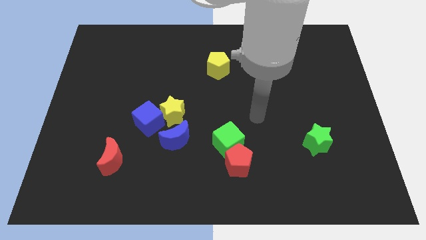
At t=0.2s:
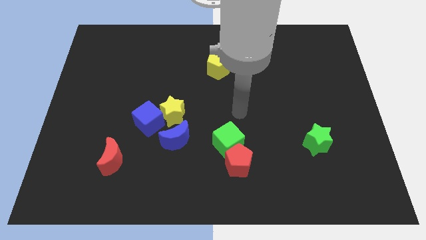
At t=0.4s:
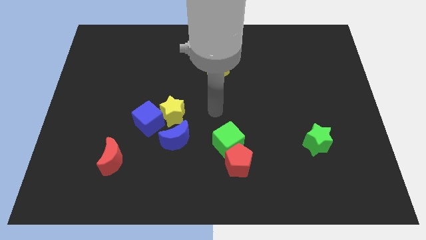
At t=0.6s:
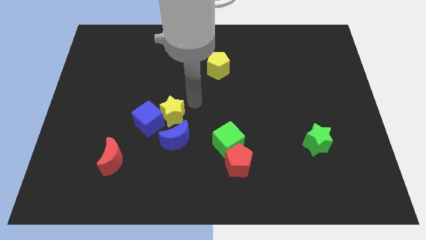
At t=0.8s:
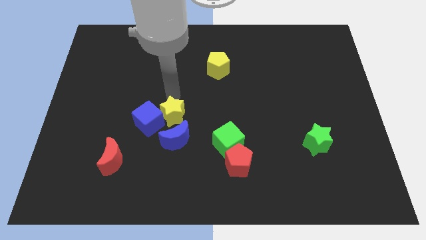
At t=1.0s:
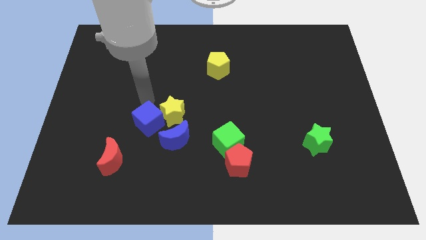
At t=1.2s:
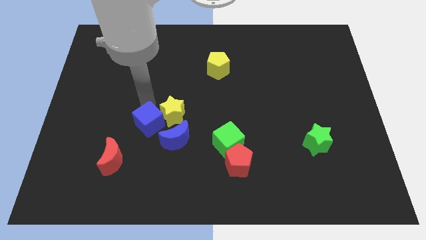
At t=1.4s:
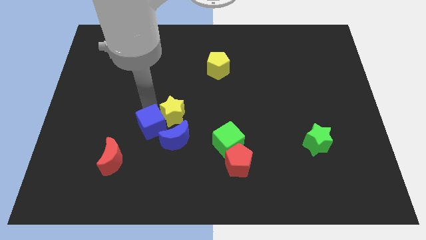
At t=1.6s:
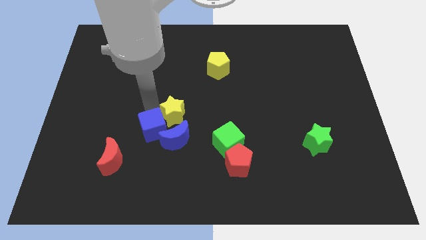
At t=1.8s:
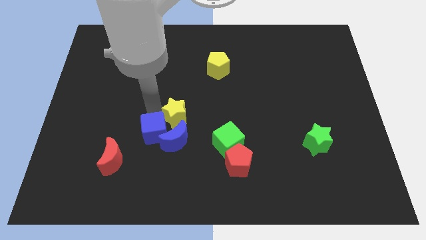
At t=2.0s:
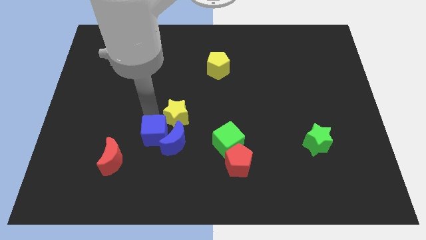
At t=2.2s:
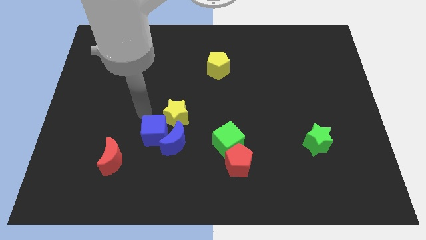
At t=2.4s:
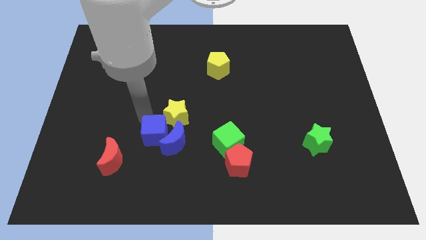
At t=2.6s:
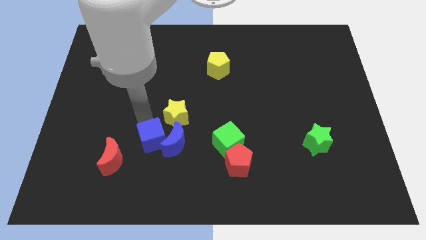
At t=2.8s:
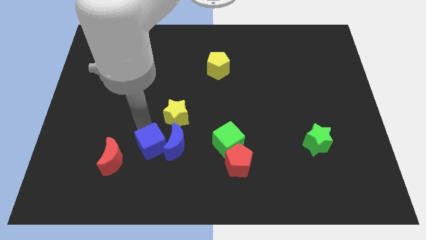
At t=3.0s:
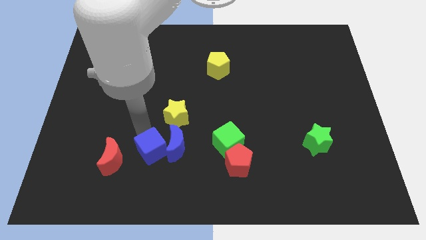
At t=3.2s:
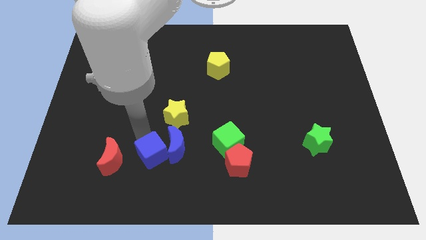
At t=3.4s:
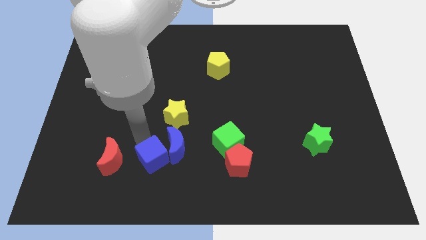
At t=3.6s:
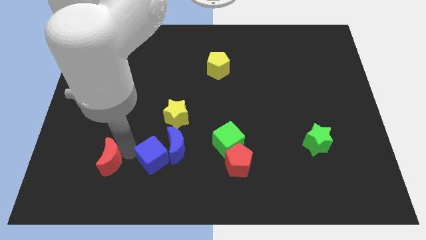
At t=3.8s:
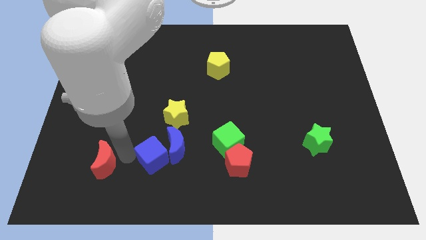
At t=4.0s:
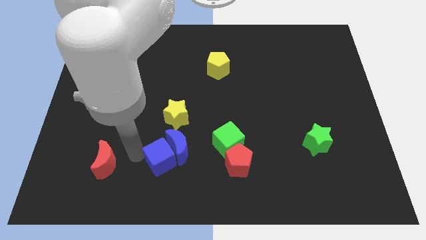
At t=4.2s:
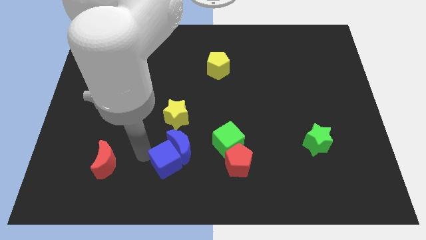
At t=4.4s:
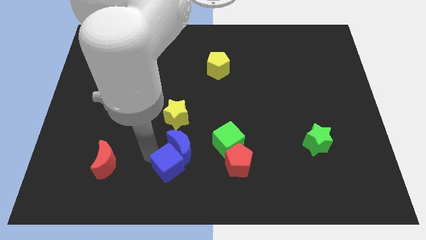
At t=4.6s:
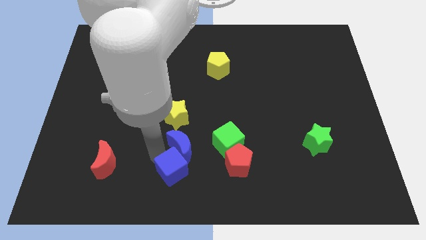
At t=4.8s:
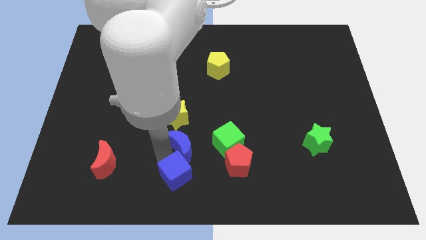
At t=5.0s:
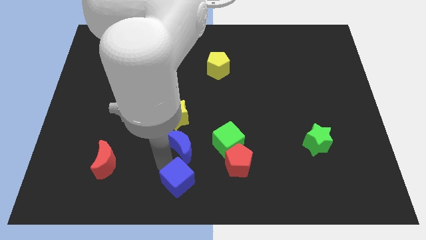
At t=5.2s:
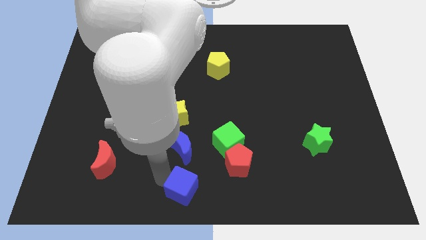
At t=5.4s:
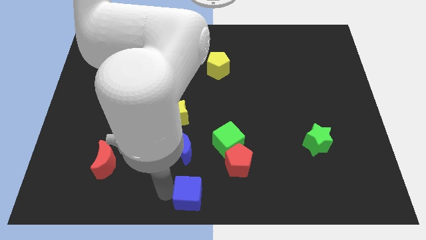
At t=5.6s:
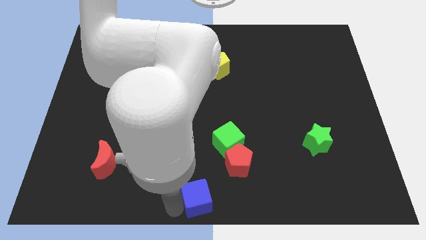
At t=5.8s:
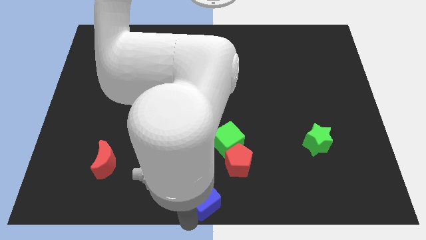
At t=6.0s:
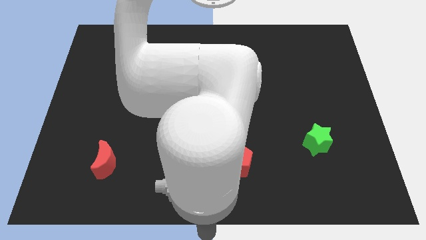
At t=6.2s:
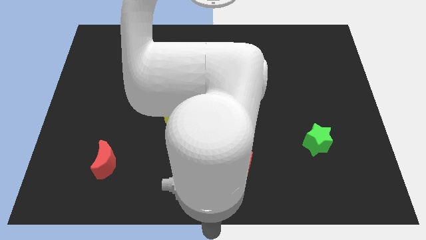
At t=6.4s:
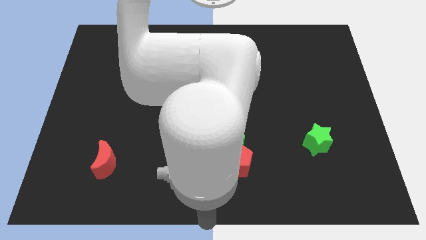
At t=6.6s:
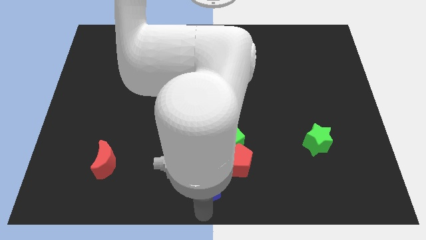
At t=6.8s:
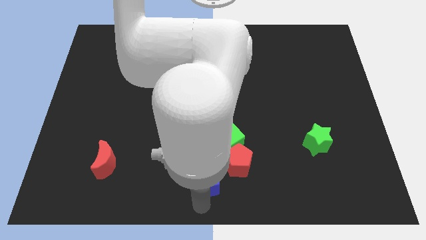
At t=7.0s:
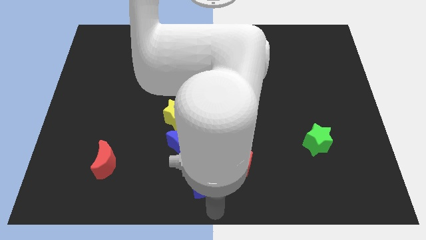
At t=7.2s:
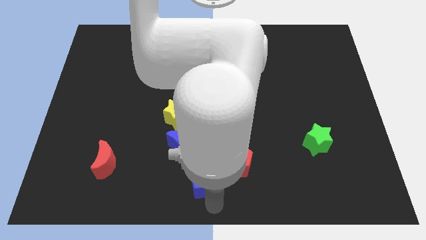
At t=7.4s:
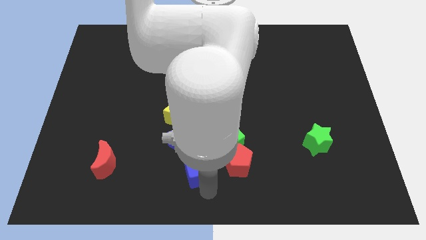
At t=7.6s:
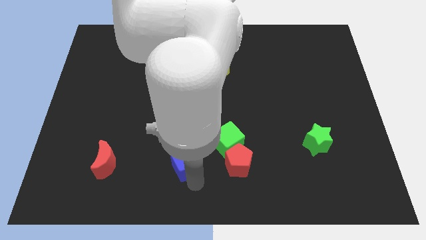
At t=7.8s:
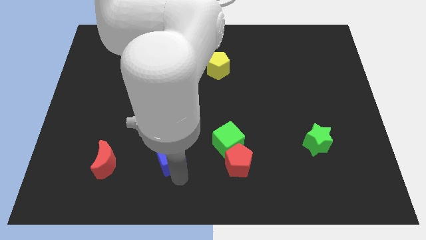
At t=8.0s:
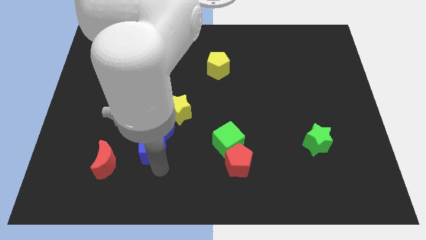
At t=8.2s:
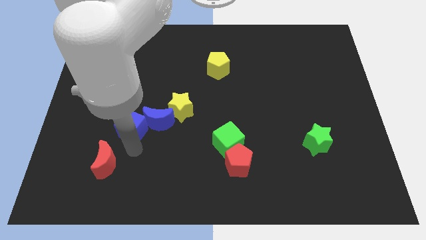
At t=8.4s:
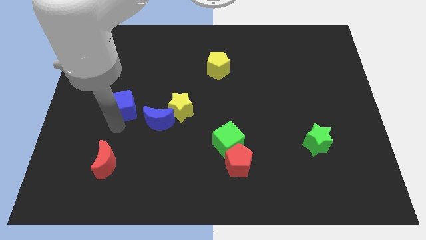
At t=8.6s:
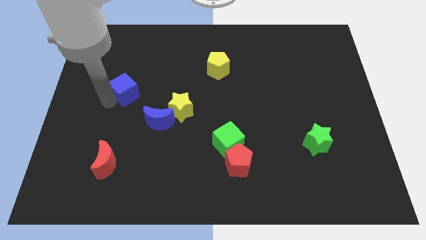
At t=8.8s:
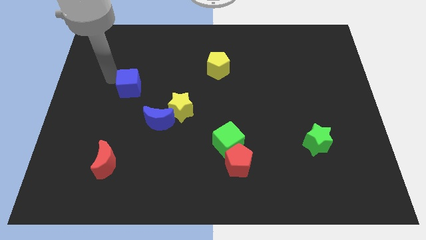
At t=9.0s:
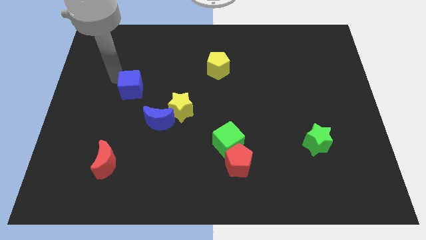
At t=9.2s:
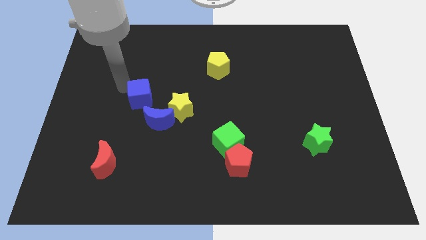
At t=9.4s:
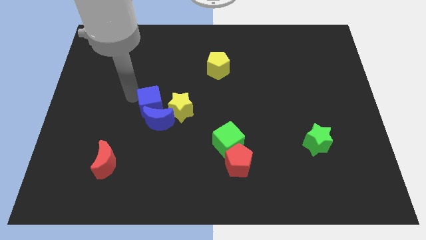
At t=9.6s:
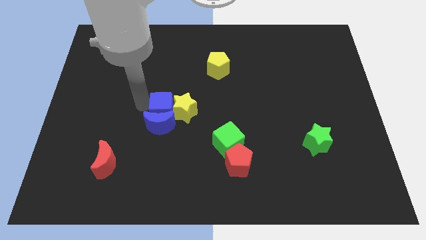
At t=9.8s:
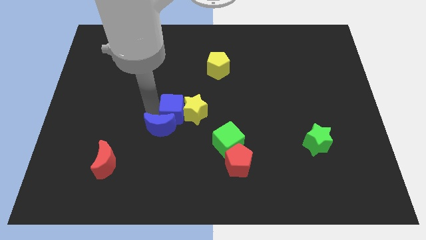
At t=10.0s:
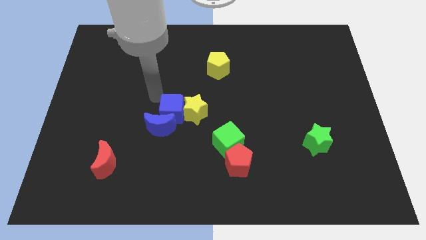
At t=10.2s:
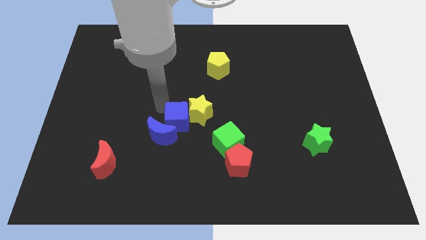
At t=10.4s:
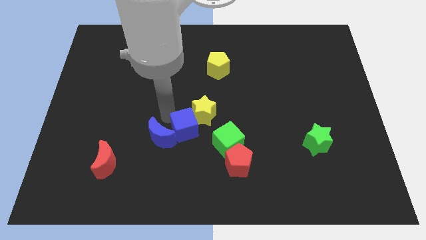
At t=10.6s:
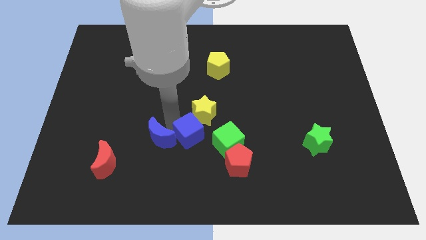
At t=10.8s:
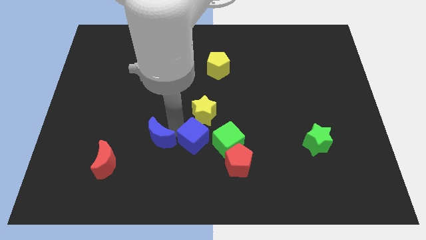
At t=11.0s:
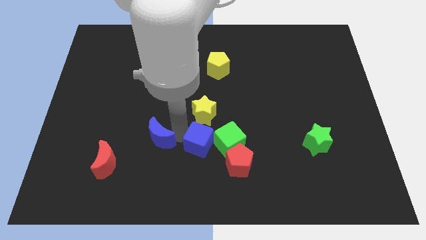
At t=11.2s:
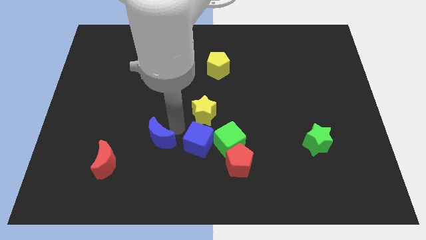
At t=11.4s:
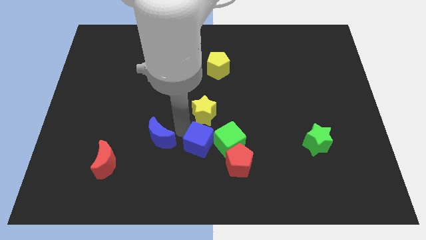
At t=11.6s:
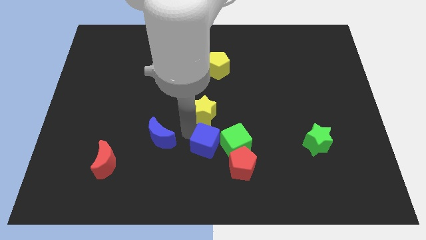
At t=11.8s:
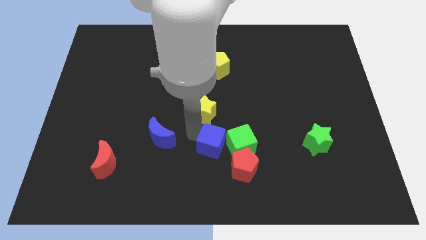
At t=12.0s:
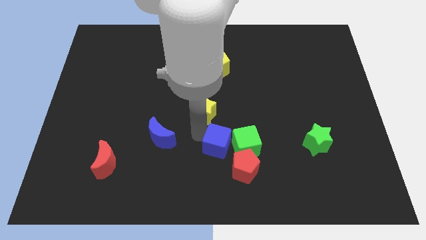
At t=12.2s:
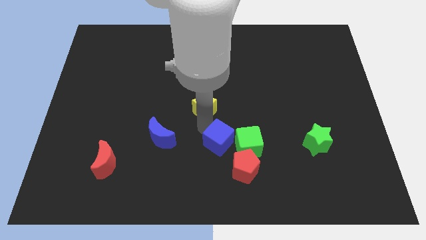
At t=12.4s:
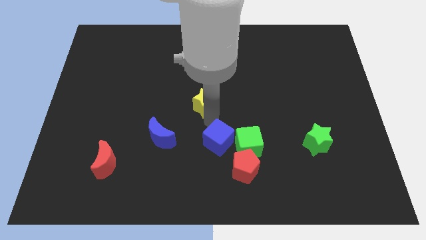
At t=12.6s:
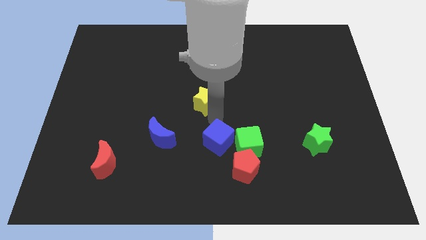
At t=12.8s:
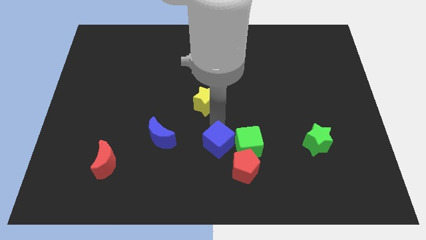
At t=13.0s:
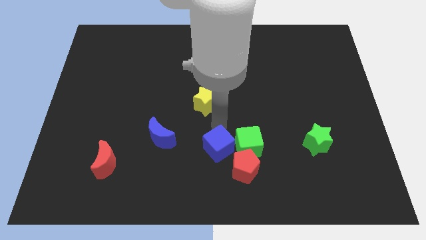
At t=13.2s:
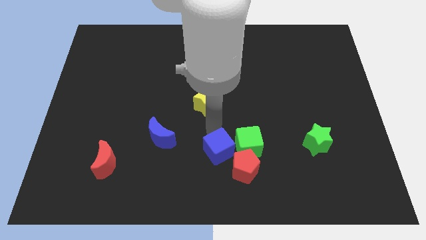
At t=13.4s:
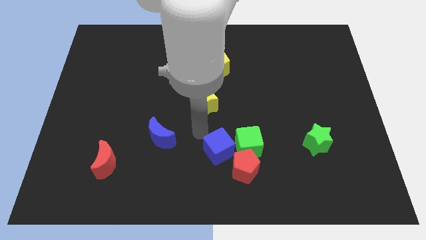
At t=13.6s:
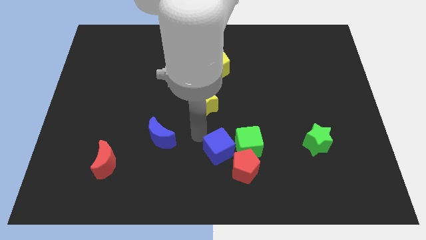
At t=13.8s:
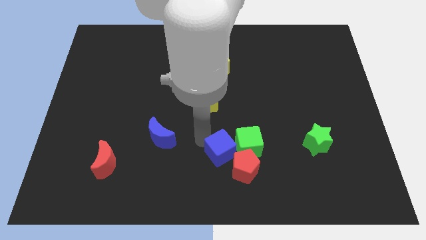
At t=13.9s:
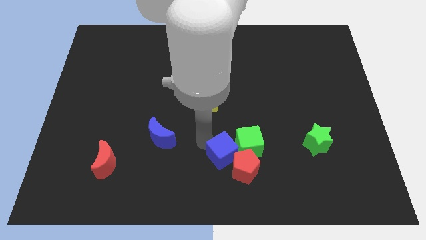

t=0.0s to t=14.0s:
push the blue cube towards the red pentagon
